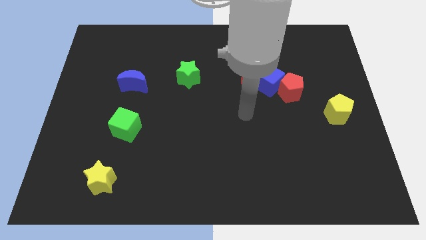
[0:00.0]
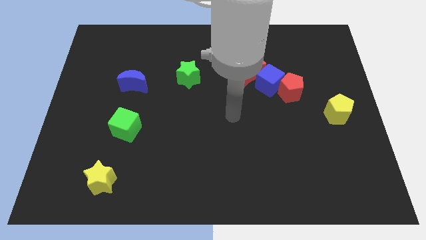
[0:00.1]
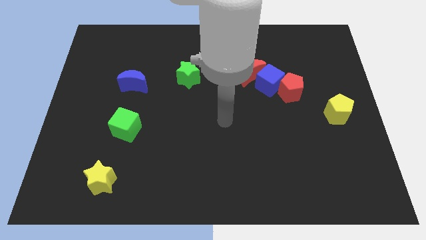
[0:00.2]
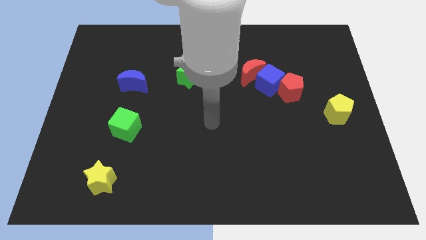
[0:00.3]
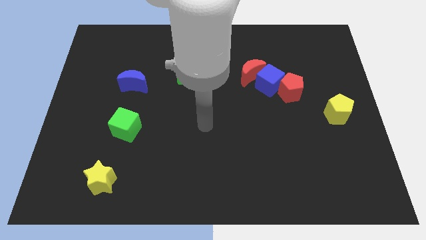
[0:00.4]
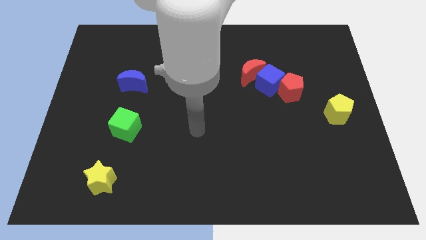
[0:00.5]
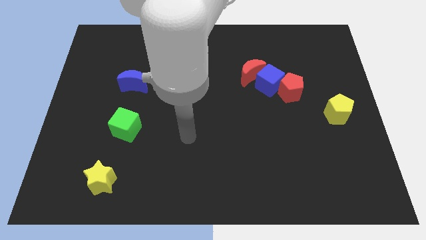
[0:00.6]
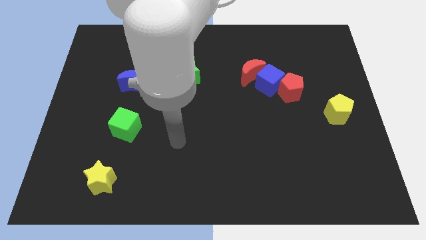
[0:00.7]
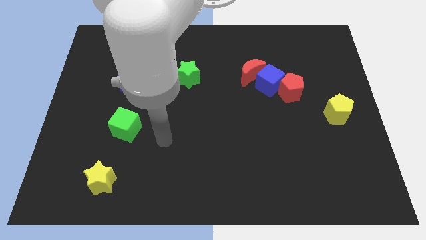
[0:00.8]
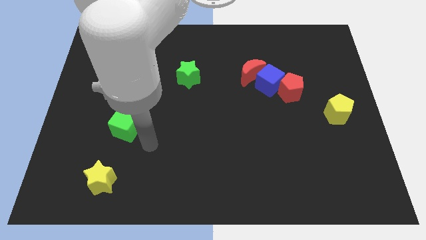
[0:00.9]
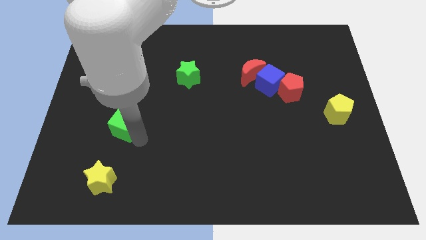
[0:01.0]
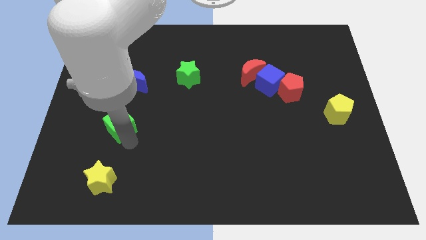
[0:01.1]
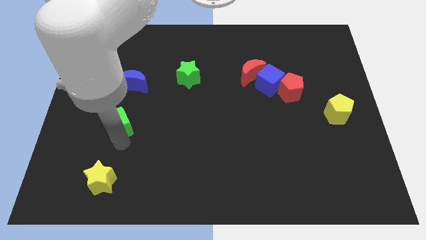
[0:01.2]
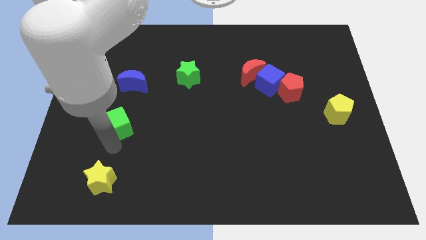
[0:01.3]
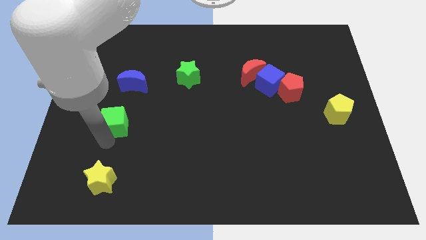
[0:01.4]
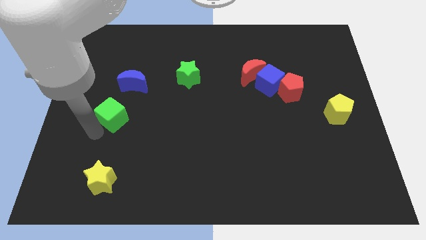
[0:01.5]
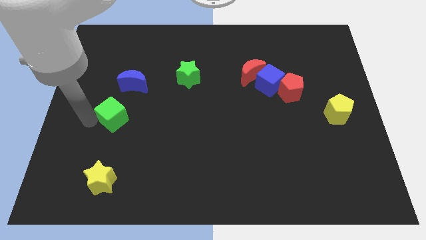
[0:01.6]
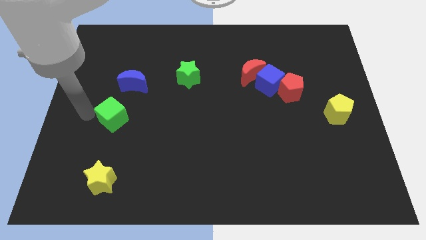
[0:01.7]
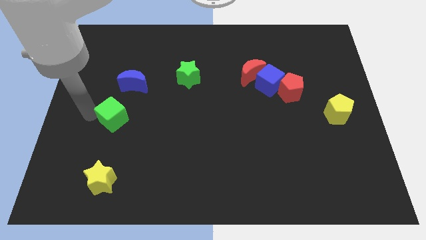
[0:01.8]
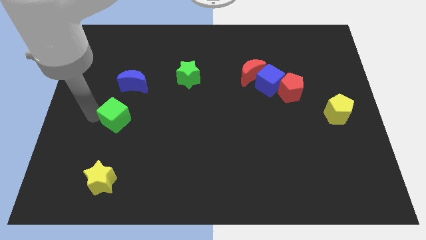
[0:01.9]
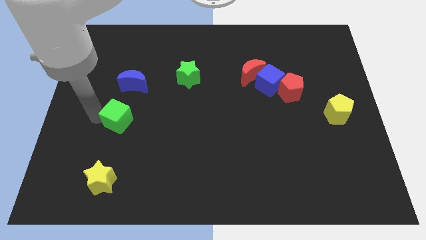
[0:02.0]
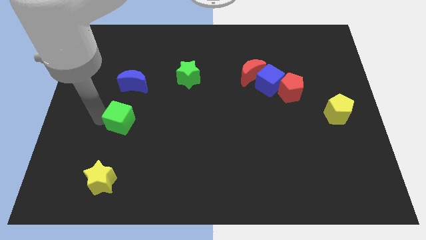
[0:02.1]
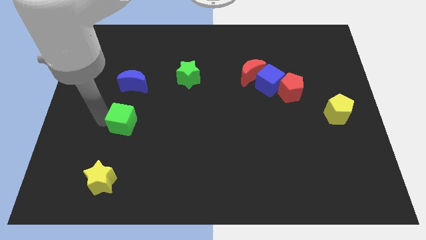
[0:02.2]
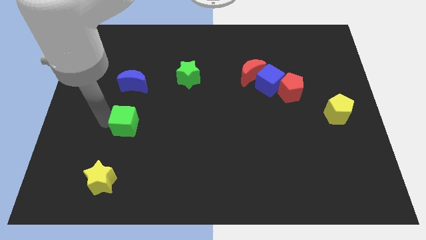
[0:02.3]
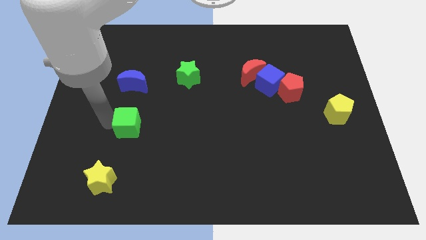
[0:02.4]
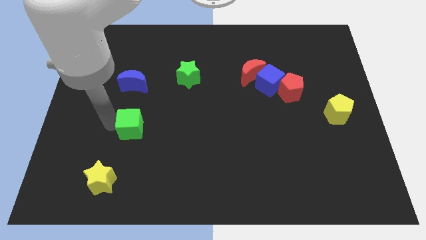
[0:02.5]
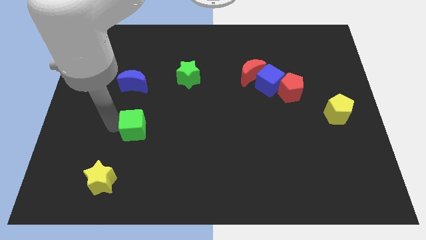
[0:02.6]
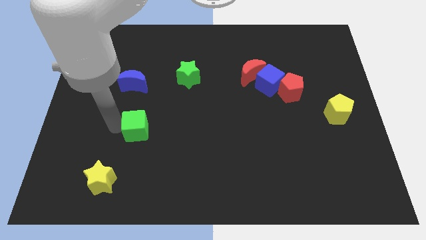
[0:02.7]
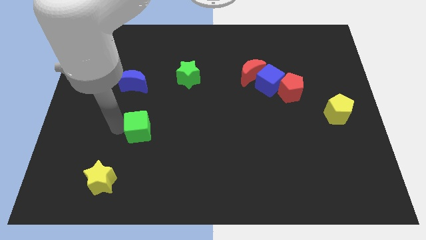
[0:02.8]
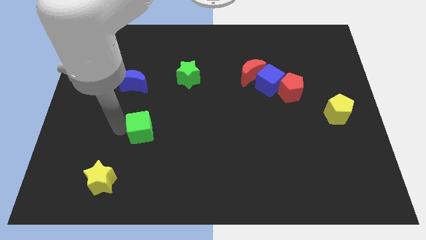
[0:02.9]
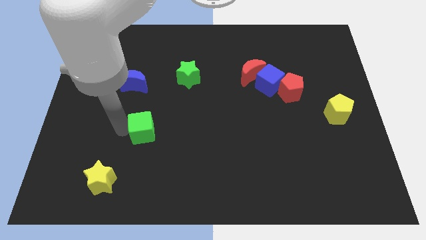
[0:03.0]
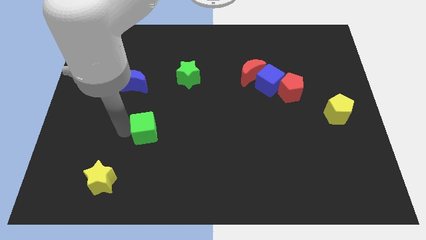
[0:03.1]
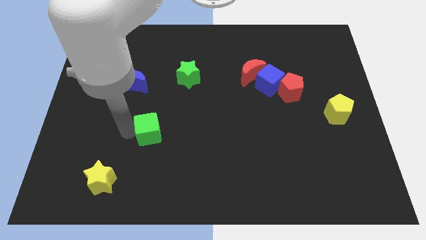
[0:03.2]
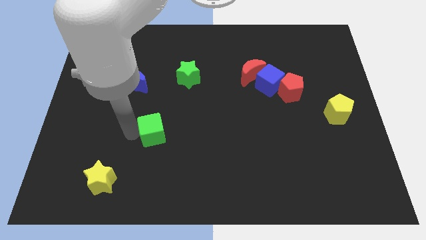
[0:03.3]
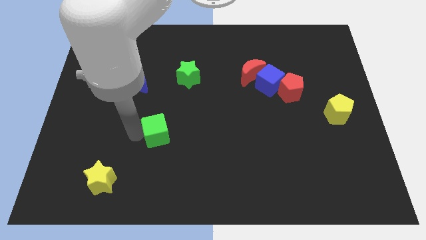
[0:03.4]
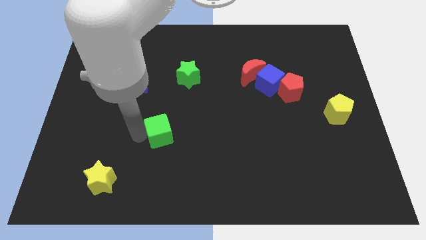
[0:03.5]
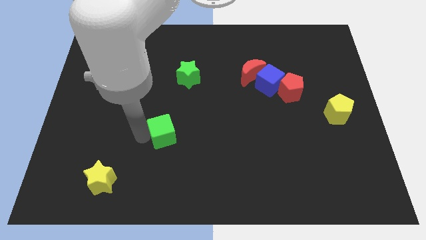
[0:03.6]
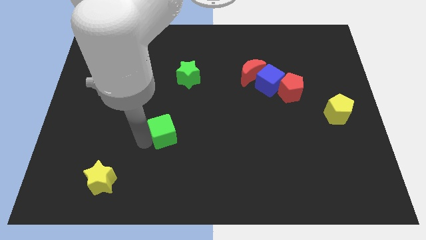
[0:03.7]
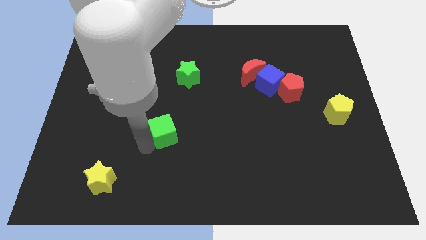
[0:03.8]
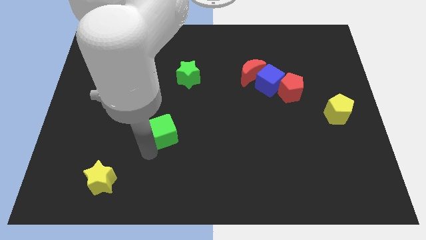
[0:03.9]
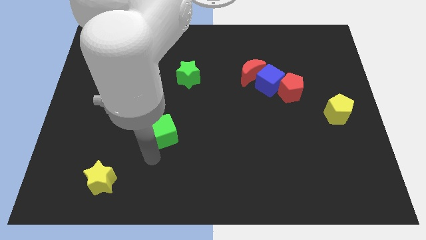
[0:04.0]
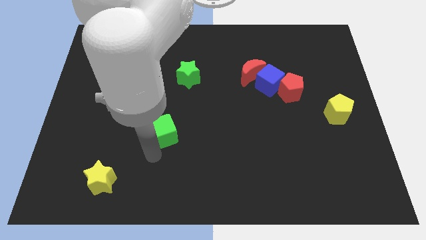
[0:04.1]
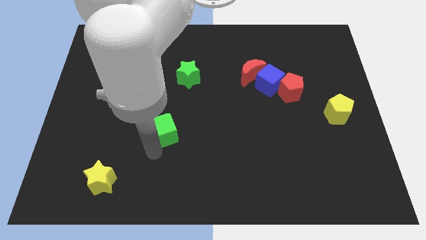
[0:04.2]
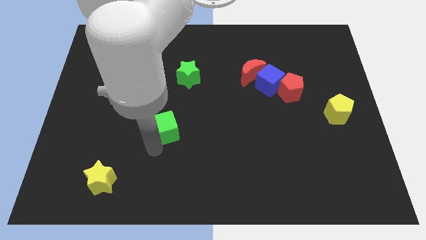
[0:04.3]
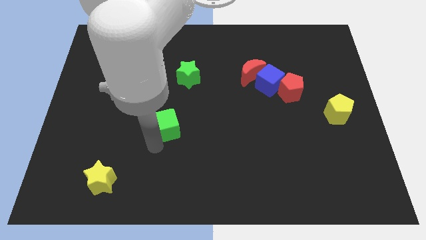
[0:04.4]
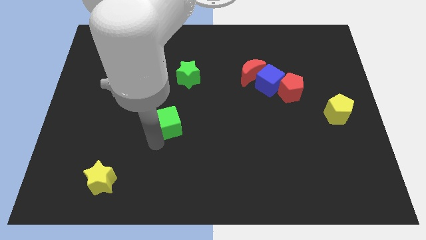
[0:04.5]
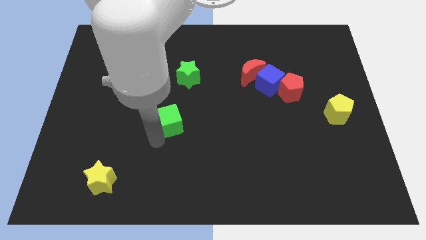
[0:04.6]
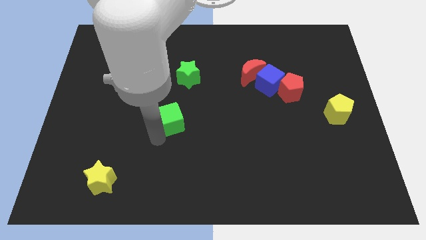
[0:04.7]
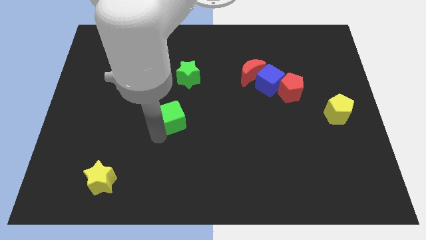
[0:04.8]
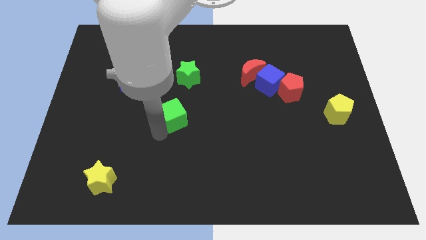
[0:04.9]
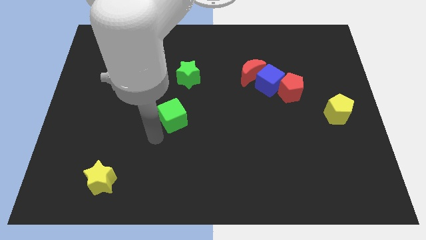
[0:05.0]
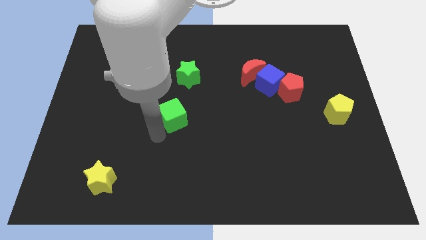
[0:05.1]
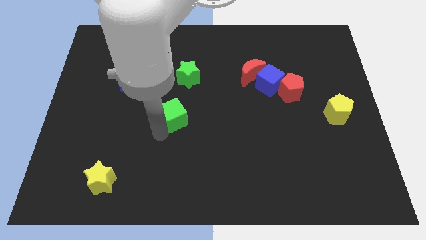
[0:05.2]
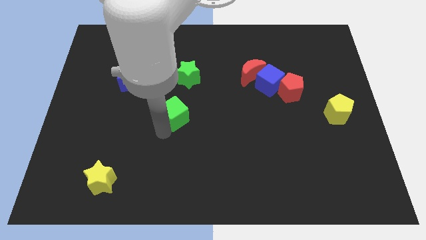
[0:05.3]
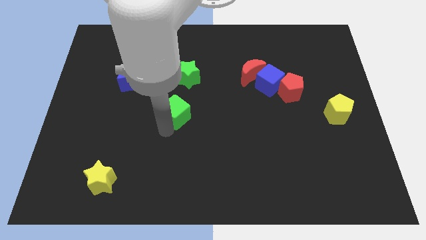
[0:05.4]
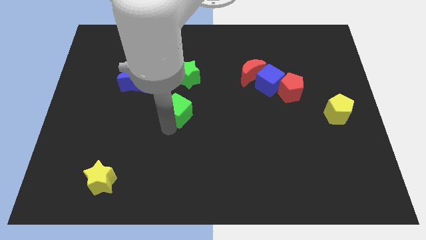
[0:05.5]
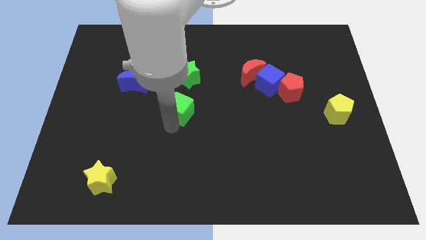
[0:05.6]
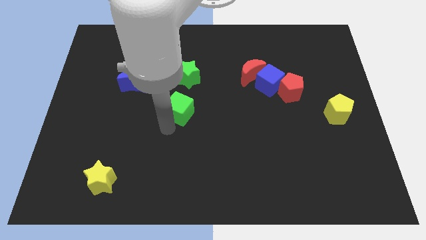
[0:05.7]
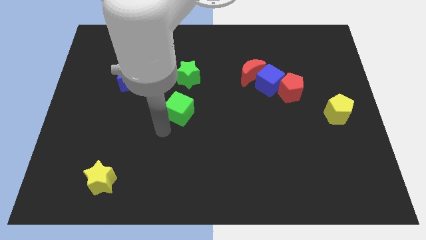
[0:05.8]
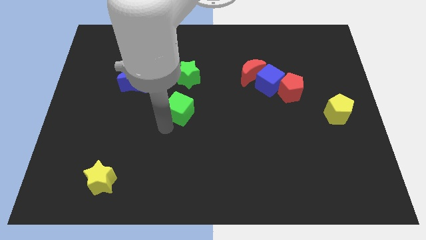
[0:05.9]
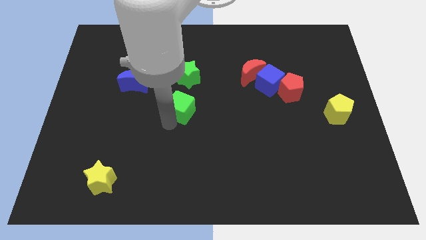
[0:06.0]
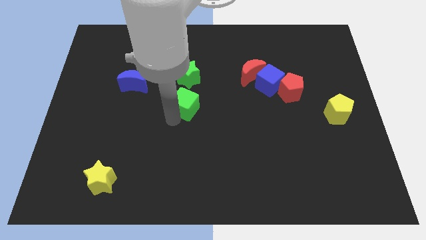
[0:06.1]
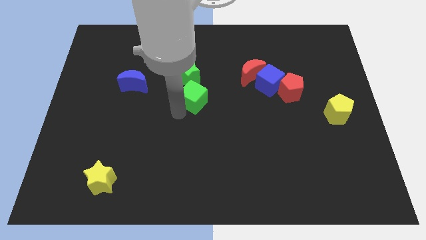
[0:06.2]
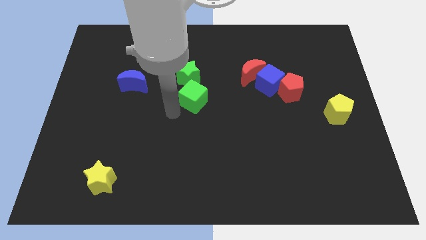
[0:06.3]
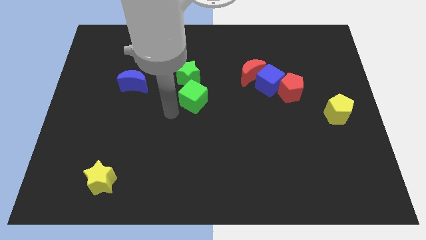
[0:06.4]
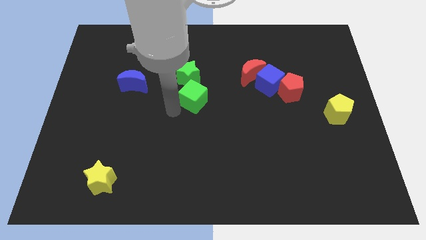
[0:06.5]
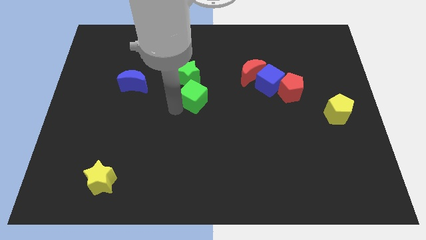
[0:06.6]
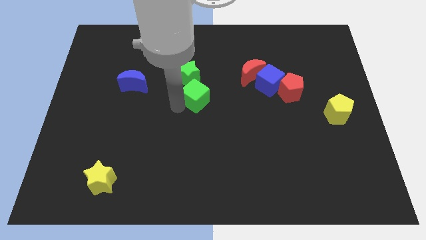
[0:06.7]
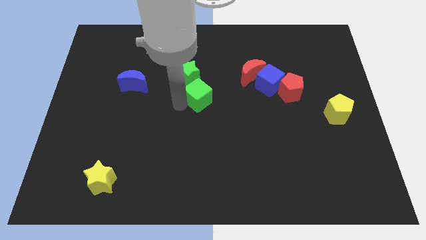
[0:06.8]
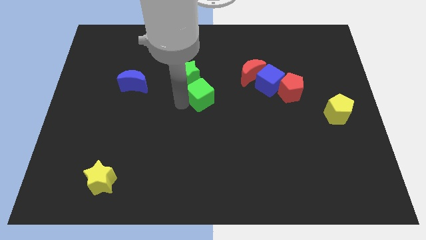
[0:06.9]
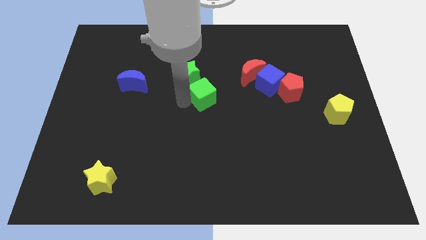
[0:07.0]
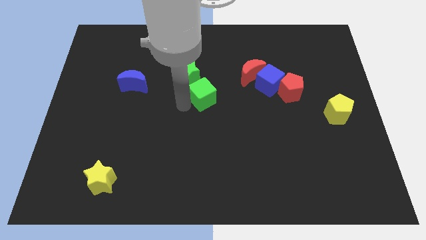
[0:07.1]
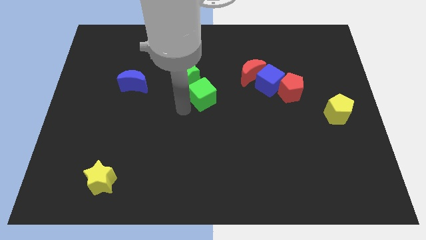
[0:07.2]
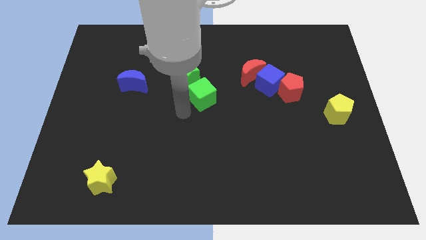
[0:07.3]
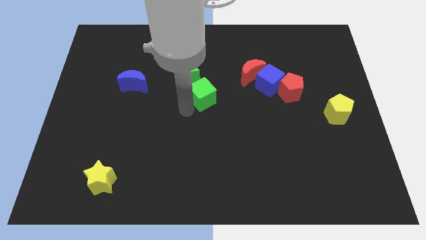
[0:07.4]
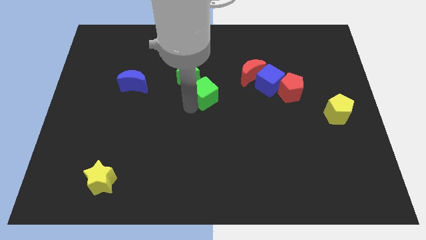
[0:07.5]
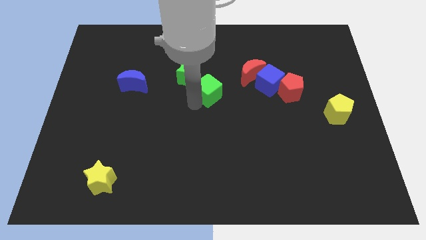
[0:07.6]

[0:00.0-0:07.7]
move the green cube just right of the green star
